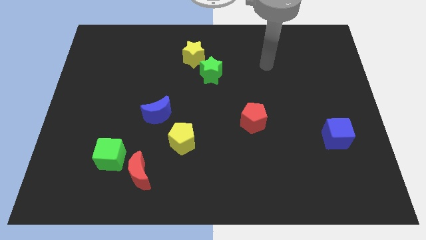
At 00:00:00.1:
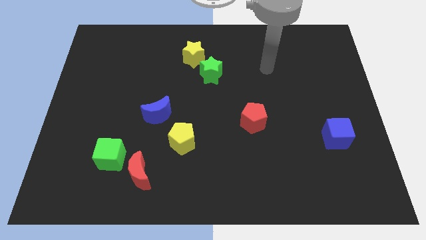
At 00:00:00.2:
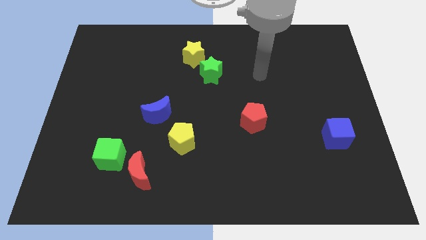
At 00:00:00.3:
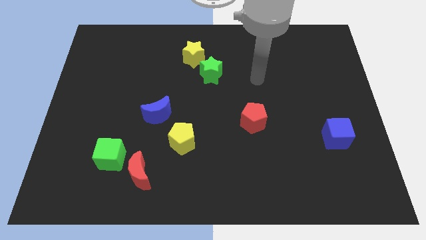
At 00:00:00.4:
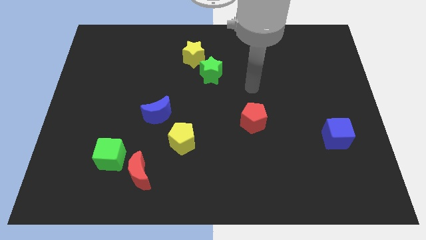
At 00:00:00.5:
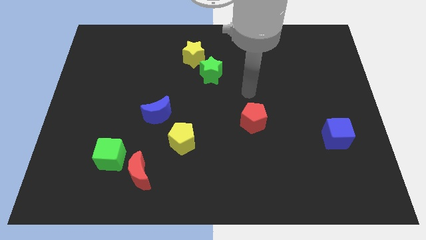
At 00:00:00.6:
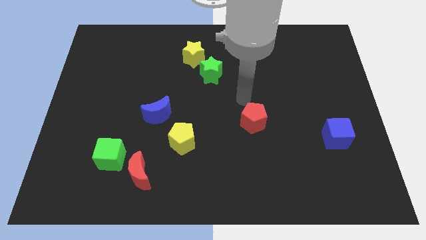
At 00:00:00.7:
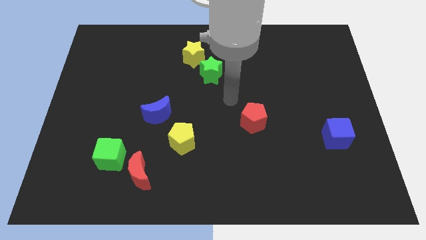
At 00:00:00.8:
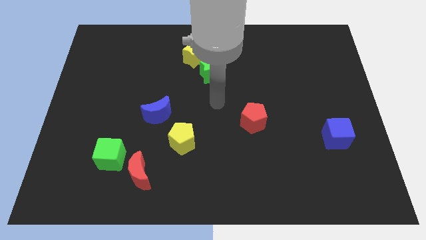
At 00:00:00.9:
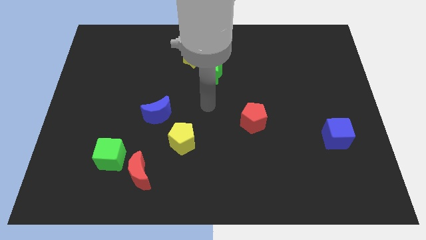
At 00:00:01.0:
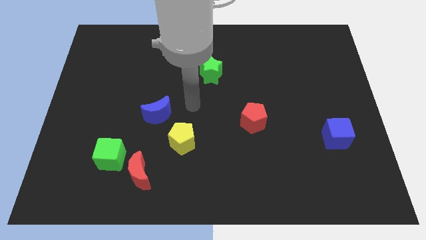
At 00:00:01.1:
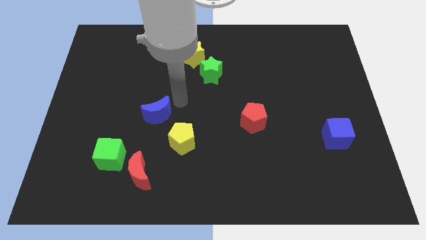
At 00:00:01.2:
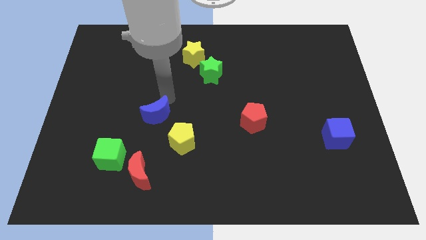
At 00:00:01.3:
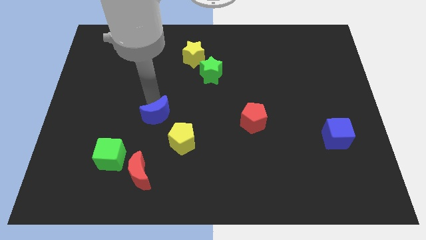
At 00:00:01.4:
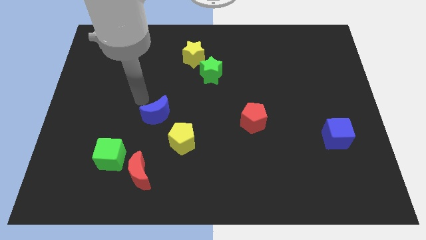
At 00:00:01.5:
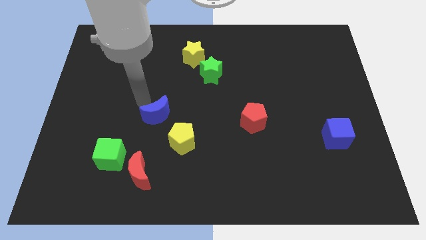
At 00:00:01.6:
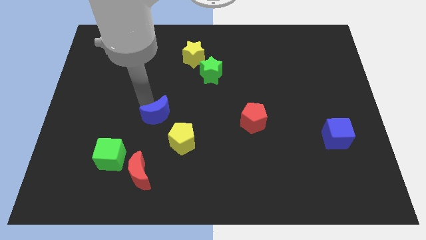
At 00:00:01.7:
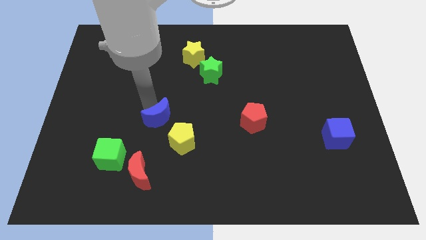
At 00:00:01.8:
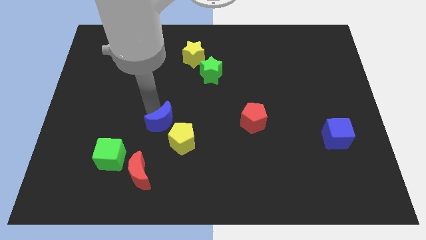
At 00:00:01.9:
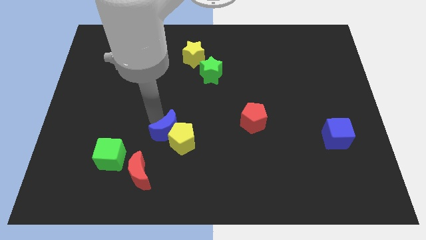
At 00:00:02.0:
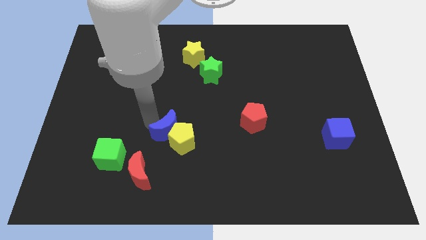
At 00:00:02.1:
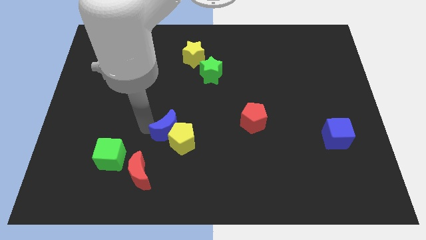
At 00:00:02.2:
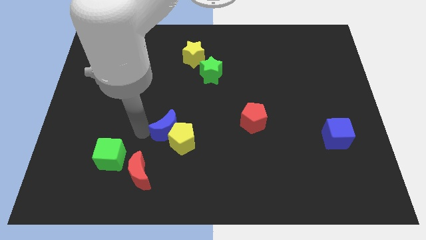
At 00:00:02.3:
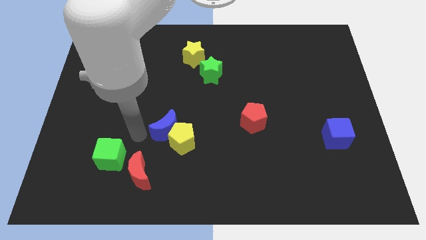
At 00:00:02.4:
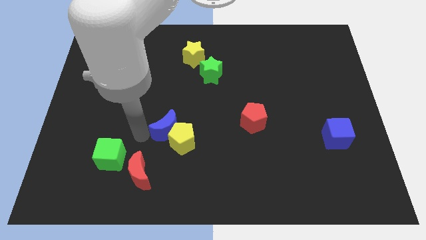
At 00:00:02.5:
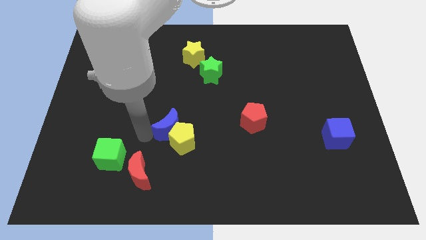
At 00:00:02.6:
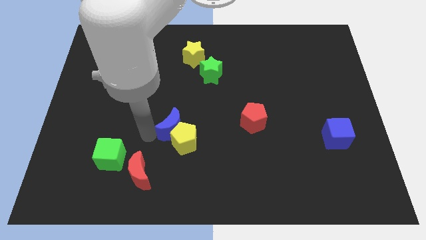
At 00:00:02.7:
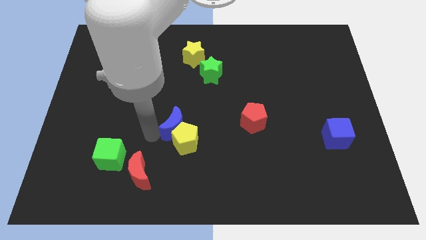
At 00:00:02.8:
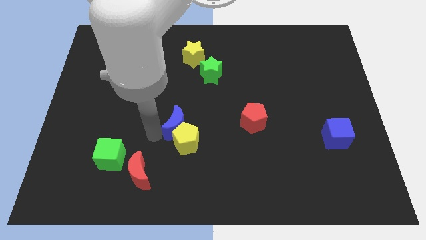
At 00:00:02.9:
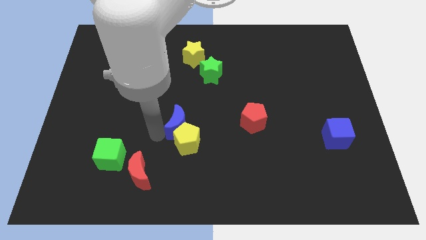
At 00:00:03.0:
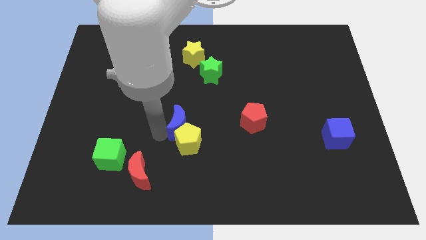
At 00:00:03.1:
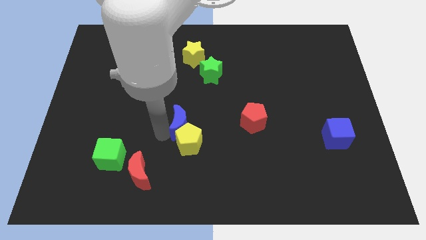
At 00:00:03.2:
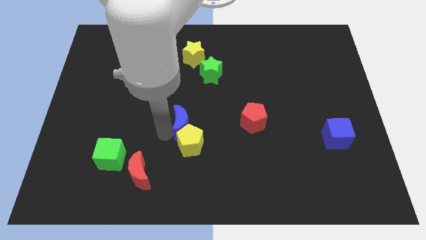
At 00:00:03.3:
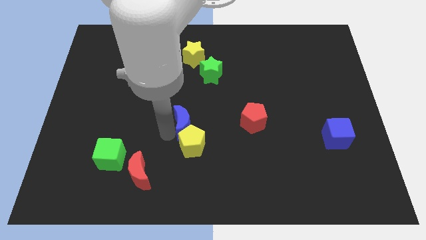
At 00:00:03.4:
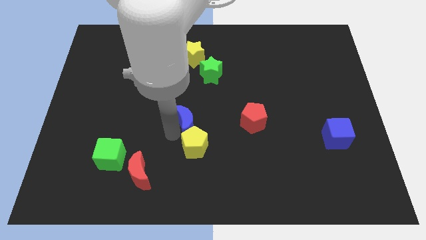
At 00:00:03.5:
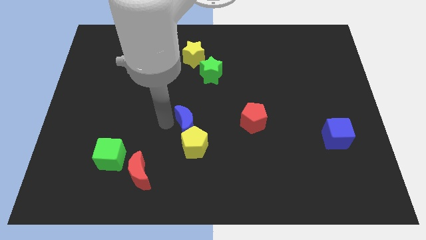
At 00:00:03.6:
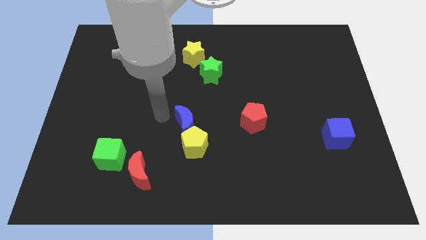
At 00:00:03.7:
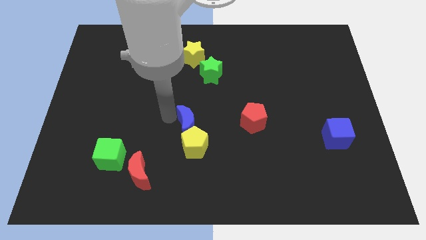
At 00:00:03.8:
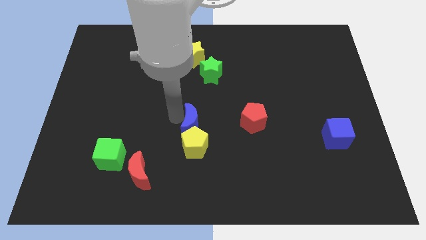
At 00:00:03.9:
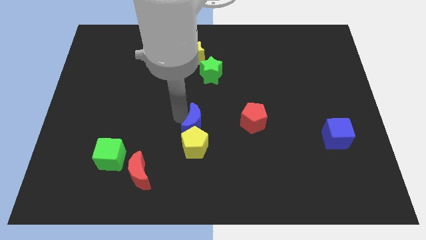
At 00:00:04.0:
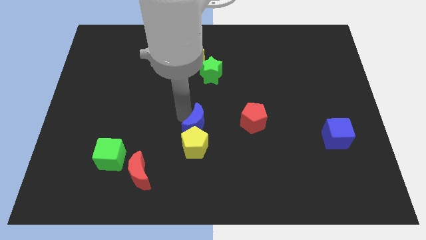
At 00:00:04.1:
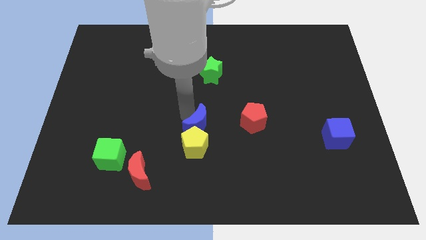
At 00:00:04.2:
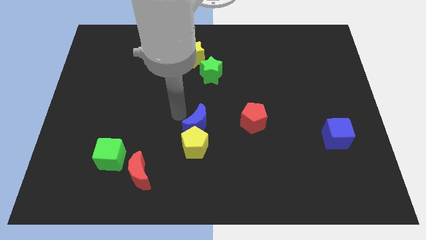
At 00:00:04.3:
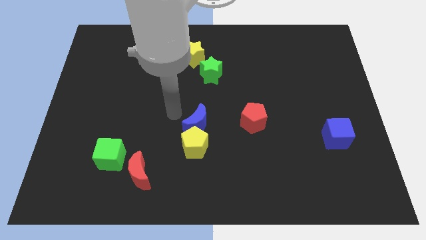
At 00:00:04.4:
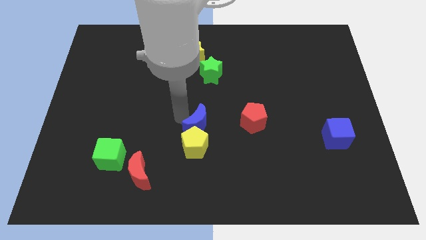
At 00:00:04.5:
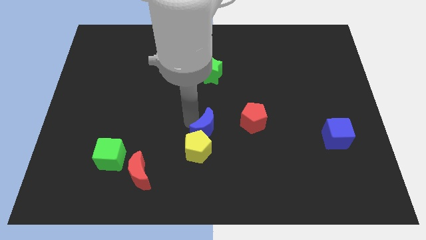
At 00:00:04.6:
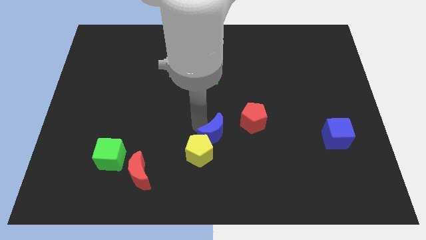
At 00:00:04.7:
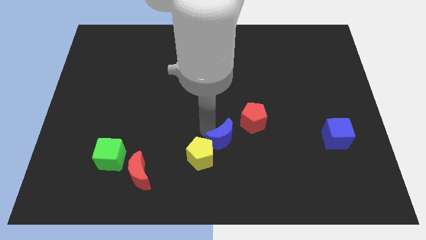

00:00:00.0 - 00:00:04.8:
slide the blue moon to the right side of the yellow pentagon

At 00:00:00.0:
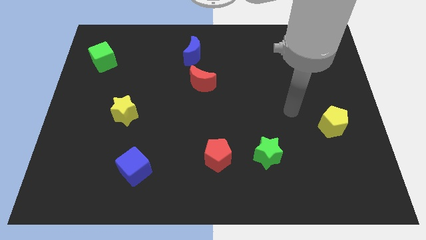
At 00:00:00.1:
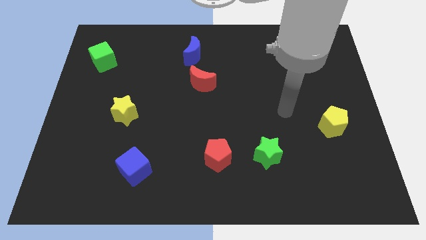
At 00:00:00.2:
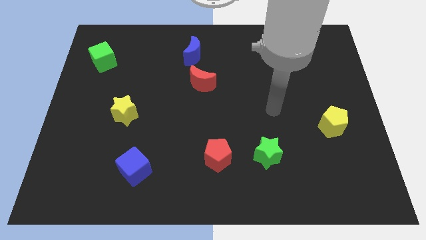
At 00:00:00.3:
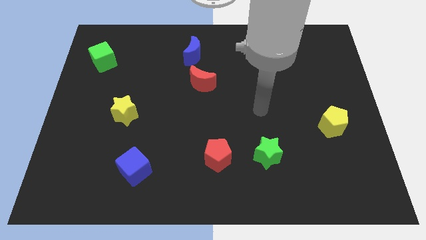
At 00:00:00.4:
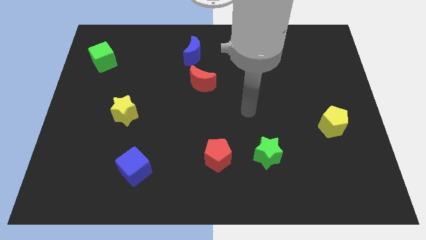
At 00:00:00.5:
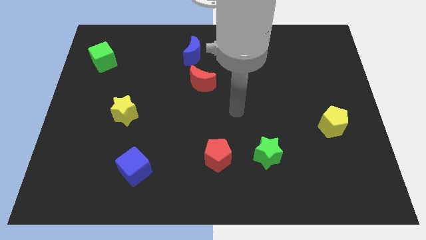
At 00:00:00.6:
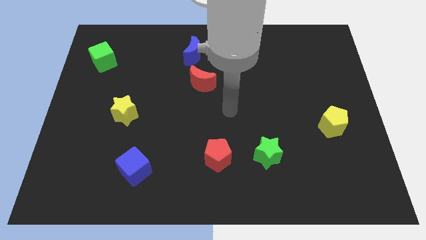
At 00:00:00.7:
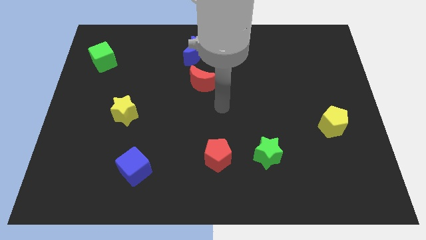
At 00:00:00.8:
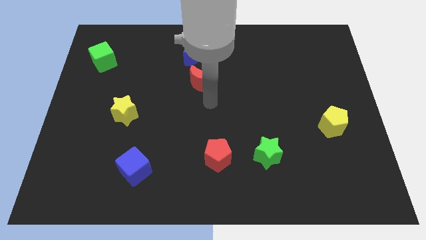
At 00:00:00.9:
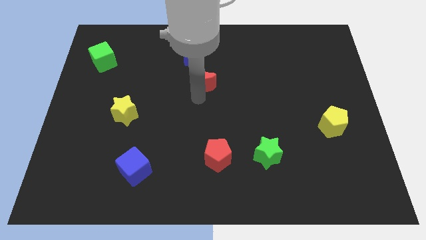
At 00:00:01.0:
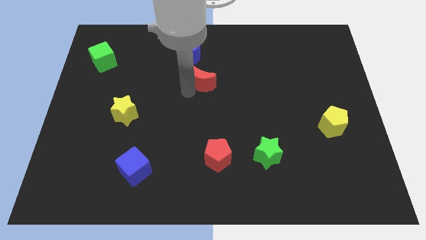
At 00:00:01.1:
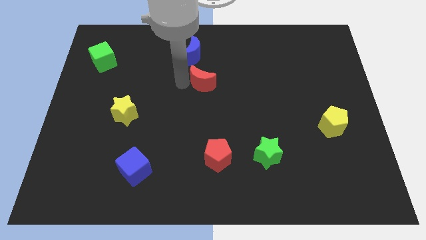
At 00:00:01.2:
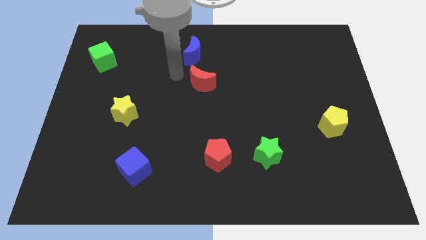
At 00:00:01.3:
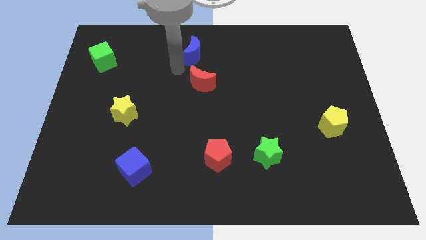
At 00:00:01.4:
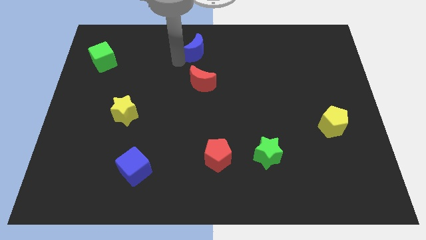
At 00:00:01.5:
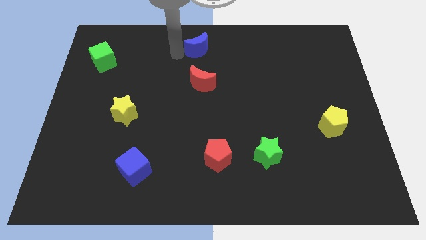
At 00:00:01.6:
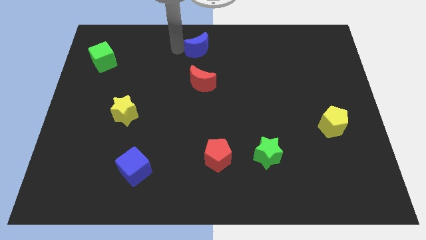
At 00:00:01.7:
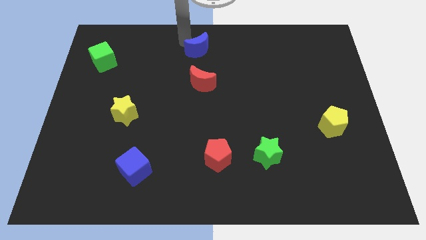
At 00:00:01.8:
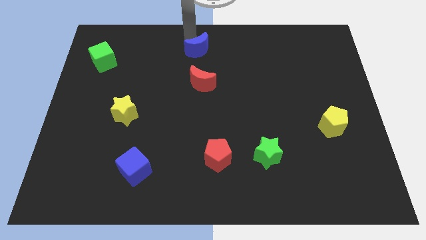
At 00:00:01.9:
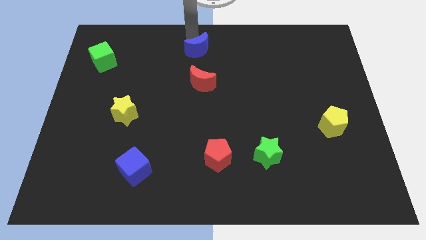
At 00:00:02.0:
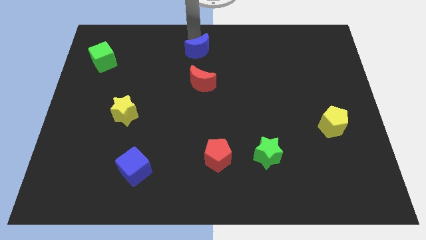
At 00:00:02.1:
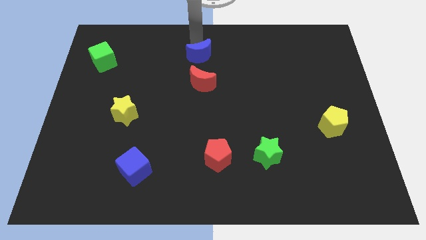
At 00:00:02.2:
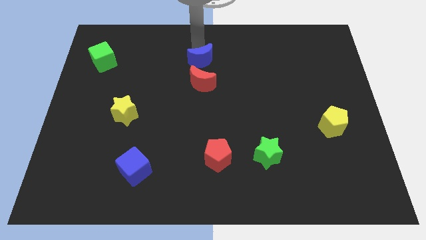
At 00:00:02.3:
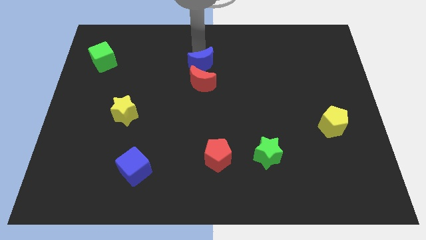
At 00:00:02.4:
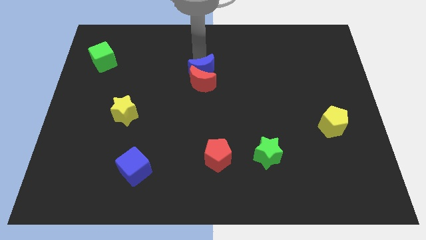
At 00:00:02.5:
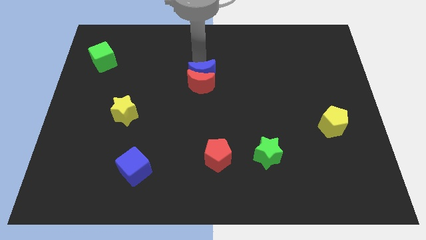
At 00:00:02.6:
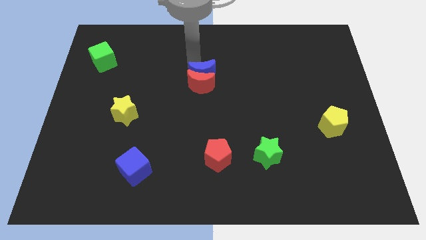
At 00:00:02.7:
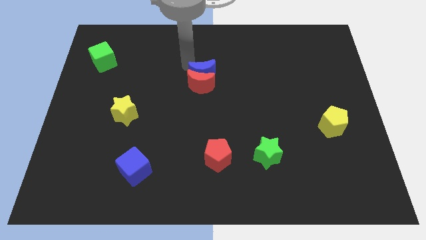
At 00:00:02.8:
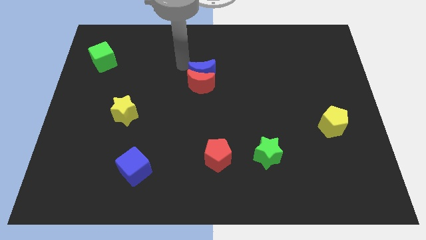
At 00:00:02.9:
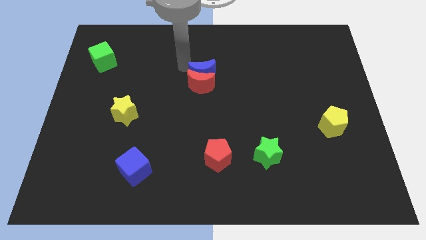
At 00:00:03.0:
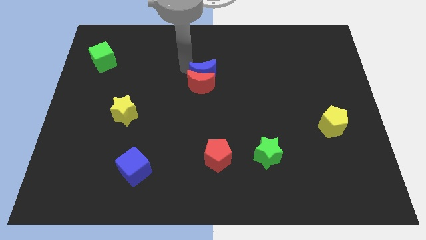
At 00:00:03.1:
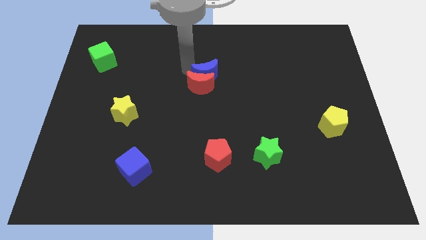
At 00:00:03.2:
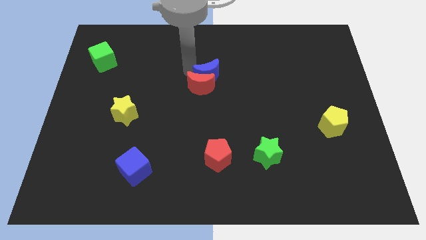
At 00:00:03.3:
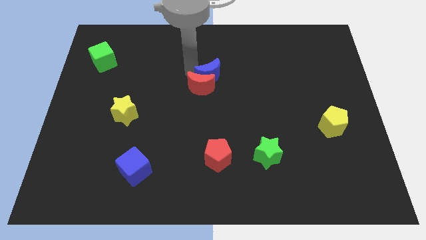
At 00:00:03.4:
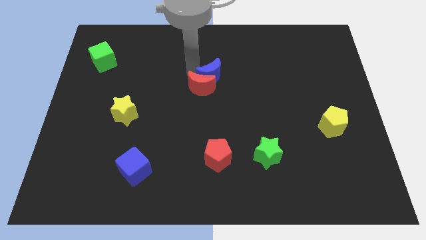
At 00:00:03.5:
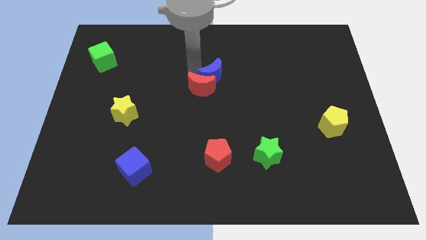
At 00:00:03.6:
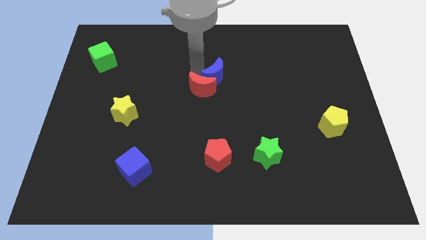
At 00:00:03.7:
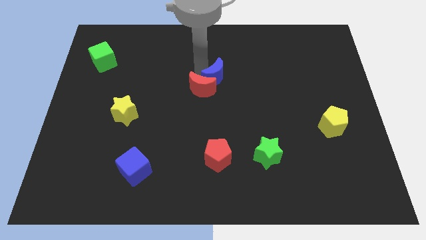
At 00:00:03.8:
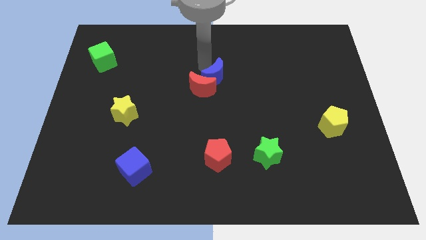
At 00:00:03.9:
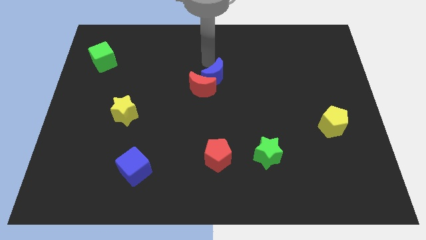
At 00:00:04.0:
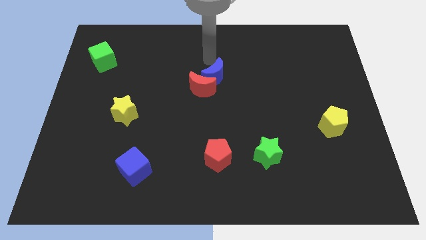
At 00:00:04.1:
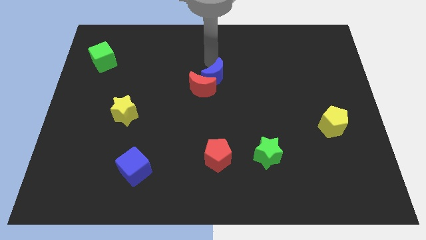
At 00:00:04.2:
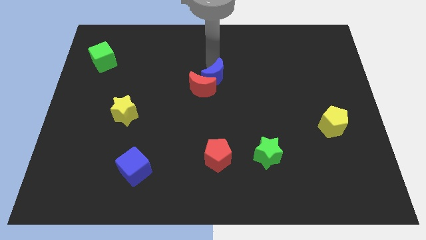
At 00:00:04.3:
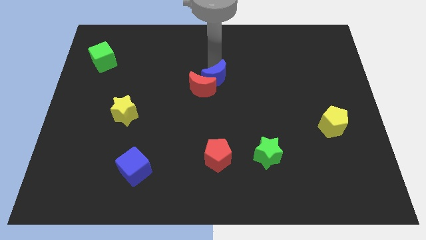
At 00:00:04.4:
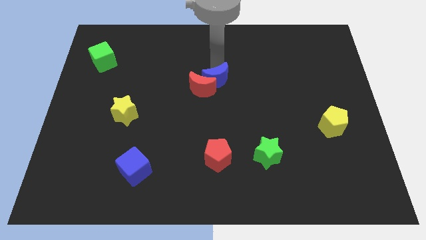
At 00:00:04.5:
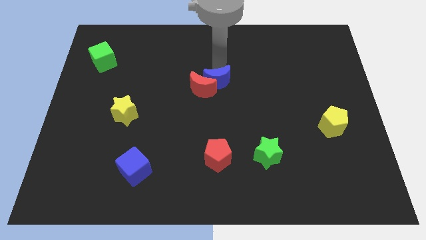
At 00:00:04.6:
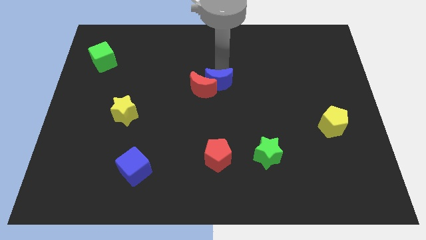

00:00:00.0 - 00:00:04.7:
push the blue moon diagonally down and to the right of the red moon
